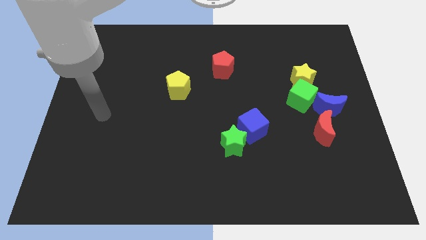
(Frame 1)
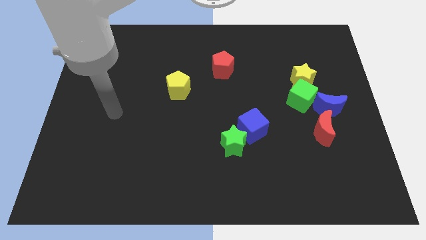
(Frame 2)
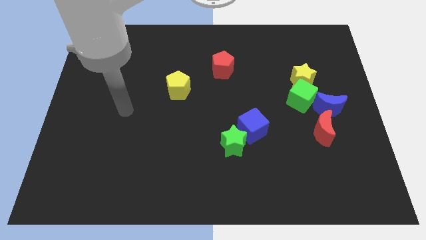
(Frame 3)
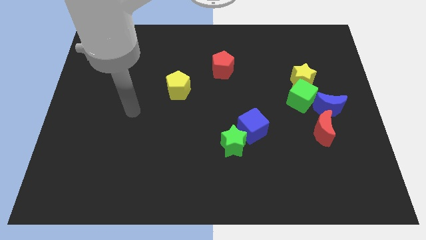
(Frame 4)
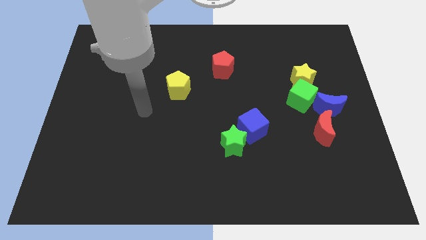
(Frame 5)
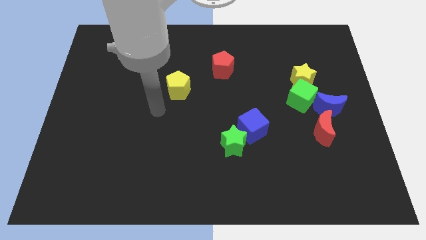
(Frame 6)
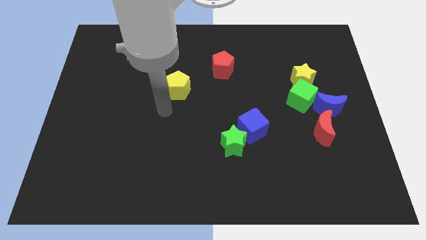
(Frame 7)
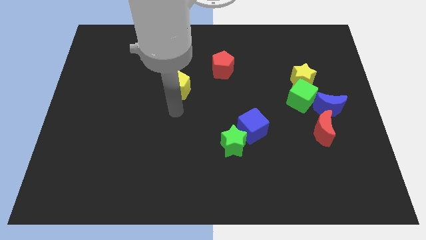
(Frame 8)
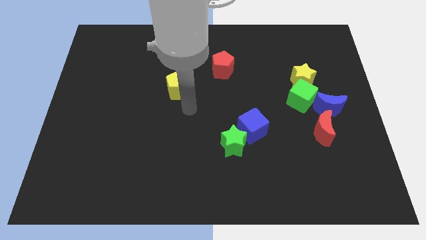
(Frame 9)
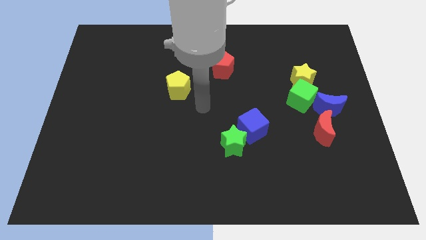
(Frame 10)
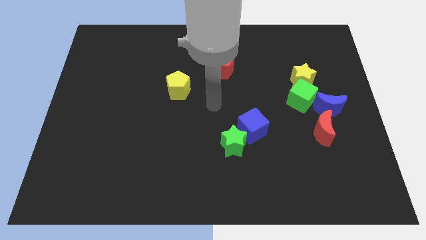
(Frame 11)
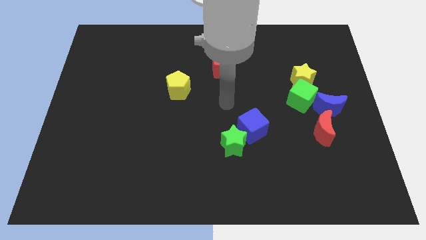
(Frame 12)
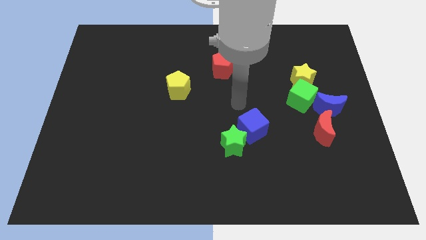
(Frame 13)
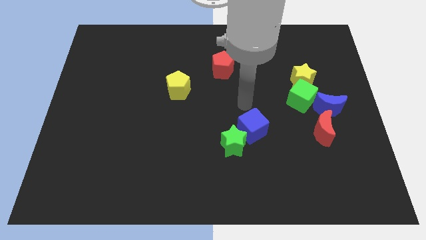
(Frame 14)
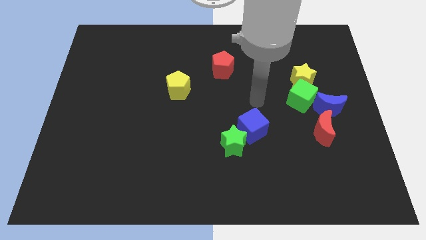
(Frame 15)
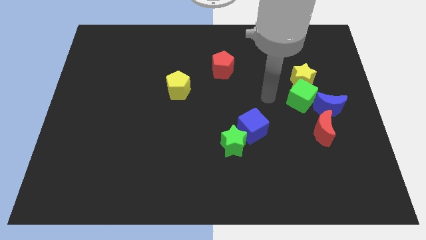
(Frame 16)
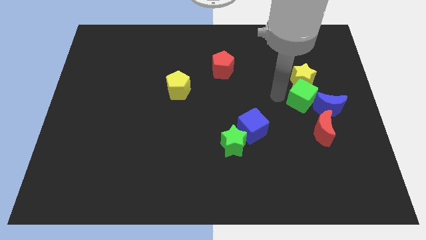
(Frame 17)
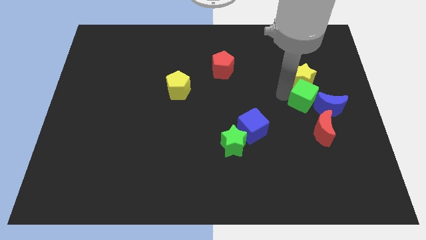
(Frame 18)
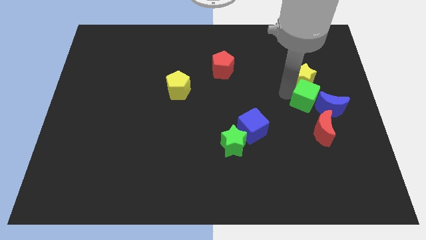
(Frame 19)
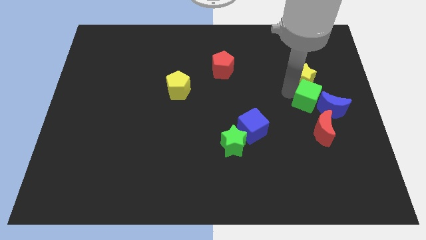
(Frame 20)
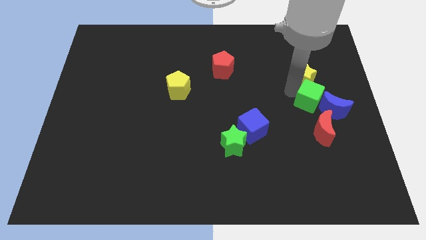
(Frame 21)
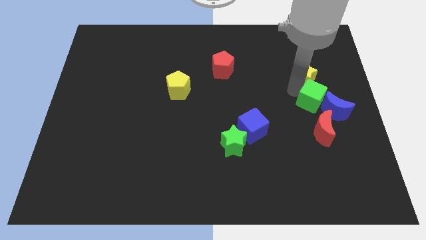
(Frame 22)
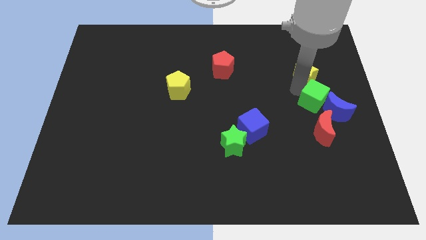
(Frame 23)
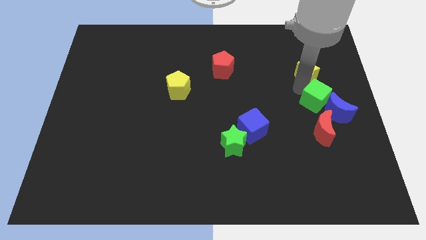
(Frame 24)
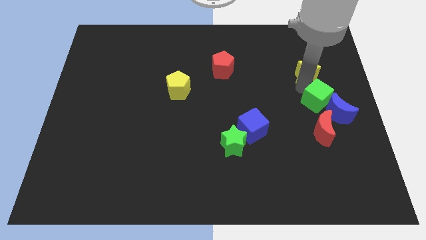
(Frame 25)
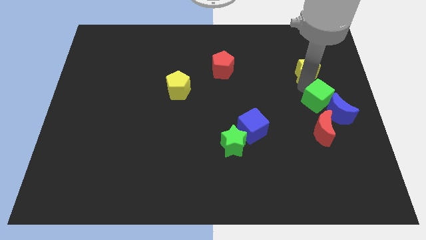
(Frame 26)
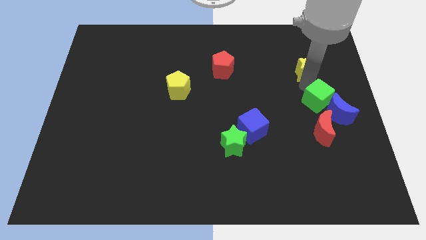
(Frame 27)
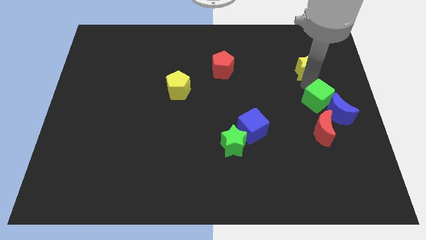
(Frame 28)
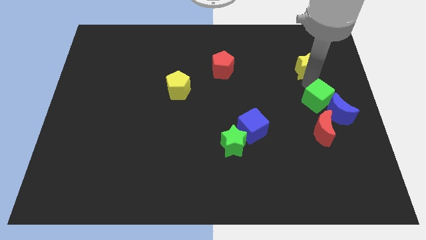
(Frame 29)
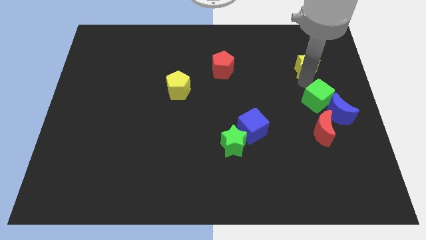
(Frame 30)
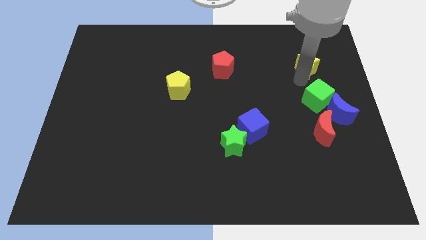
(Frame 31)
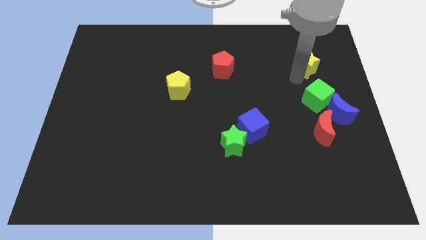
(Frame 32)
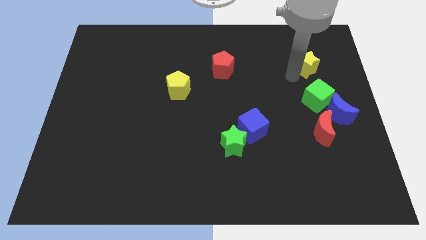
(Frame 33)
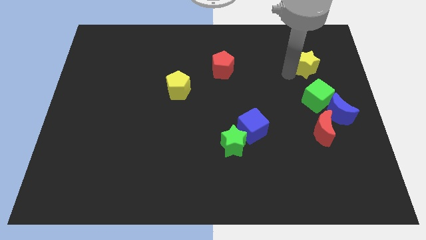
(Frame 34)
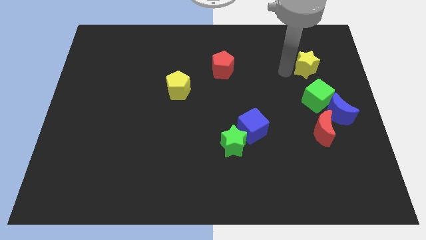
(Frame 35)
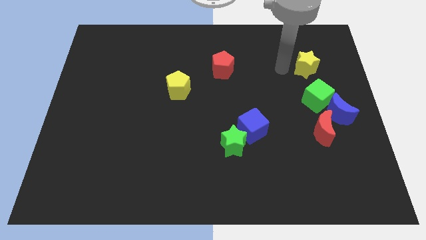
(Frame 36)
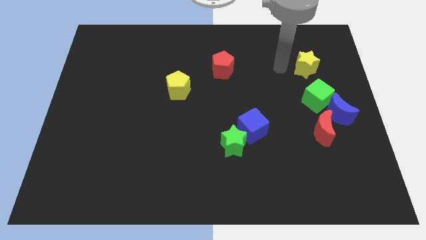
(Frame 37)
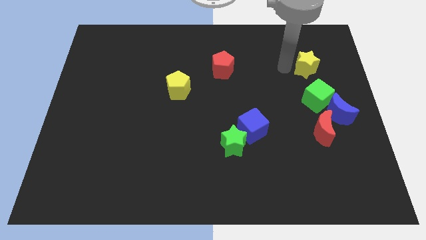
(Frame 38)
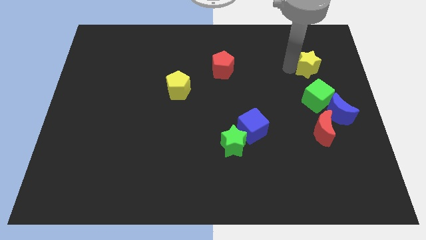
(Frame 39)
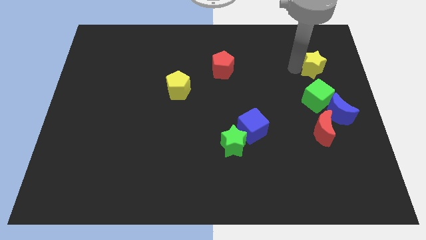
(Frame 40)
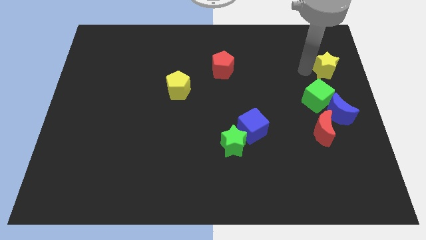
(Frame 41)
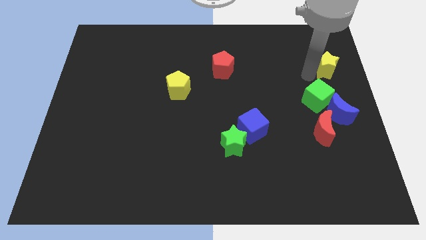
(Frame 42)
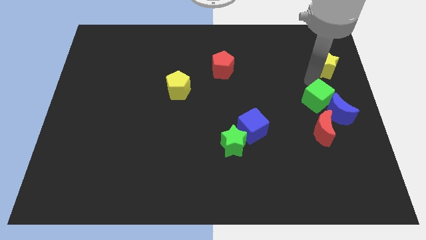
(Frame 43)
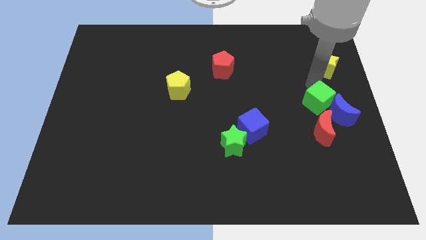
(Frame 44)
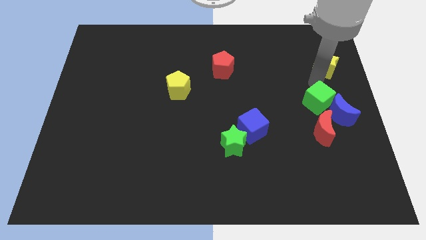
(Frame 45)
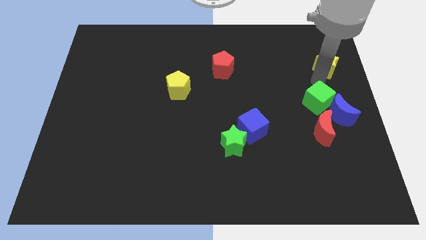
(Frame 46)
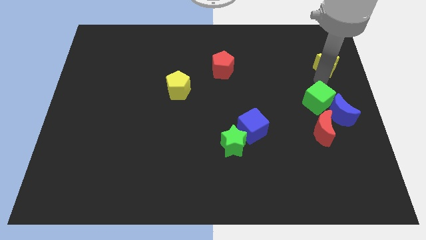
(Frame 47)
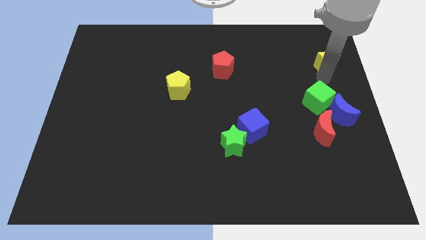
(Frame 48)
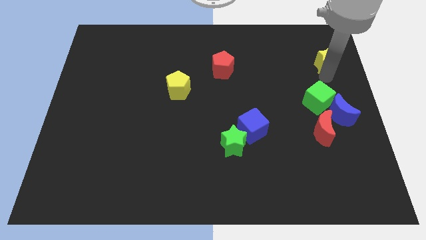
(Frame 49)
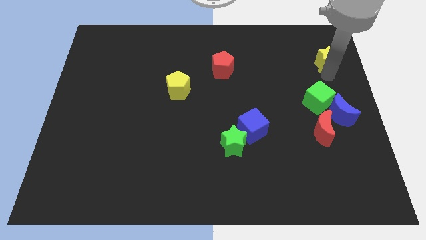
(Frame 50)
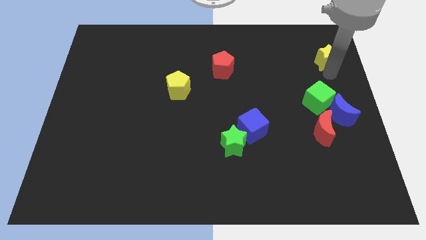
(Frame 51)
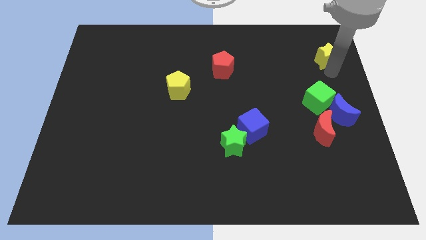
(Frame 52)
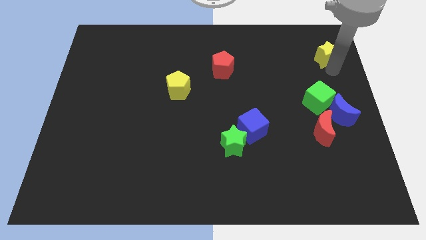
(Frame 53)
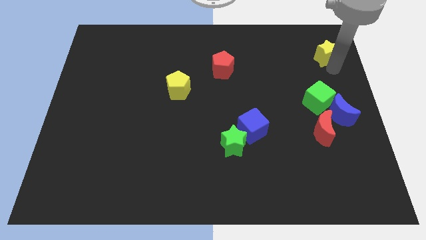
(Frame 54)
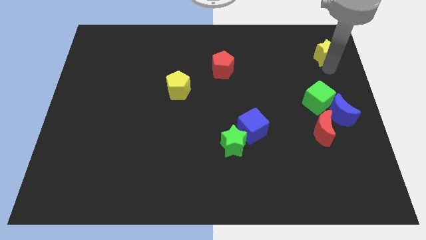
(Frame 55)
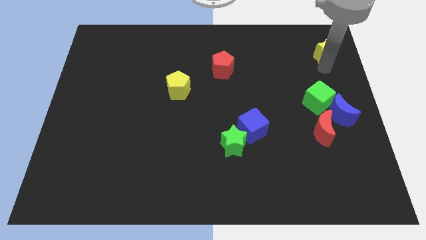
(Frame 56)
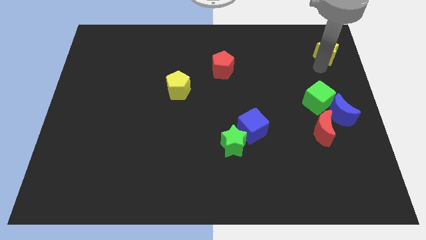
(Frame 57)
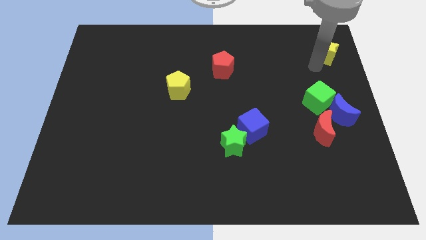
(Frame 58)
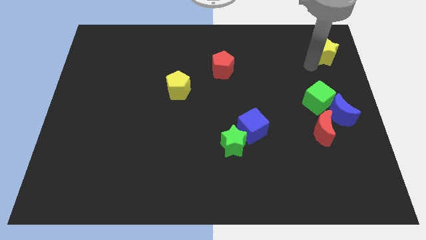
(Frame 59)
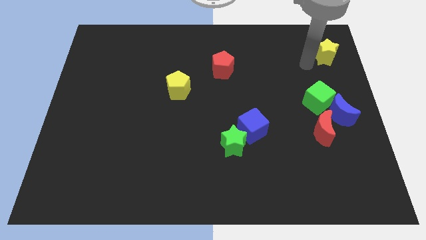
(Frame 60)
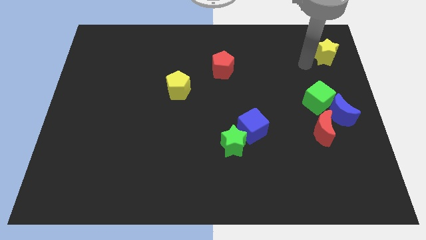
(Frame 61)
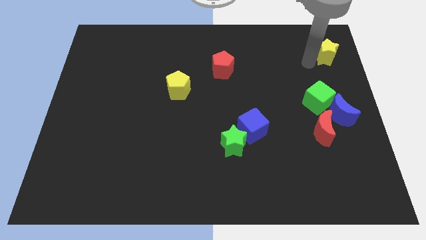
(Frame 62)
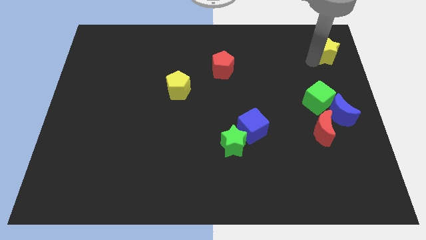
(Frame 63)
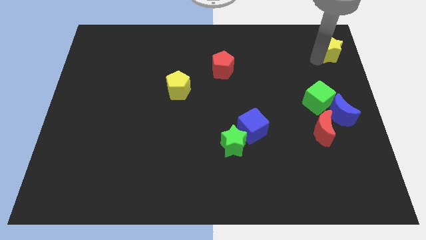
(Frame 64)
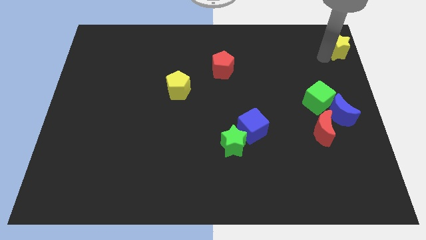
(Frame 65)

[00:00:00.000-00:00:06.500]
slide the yellow star to the top right of the board
